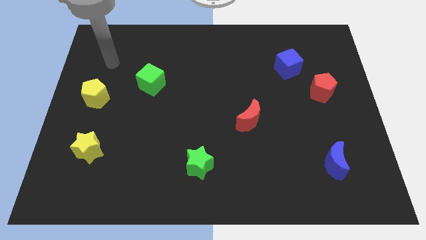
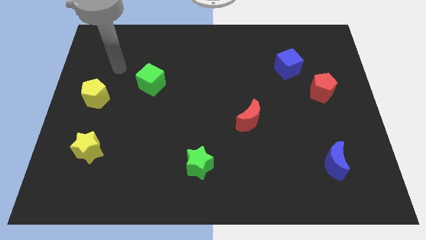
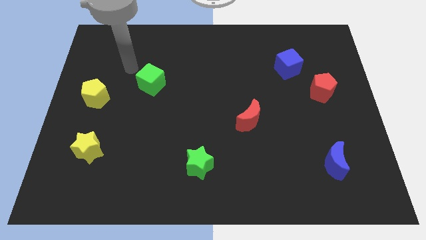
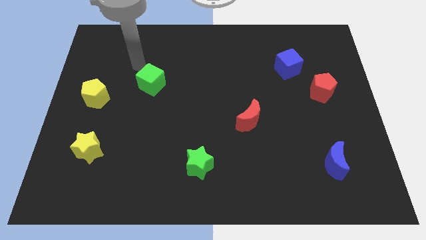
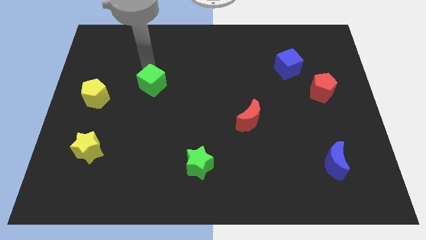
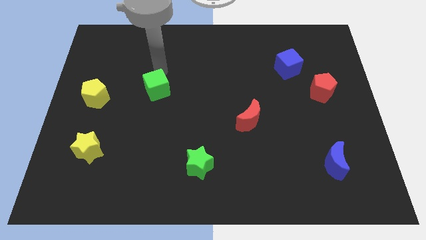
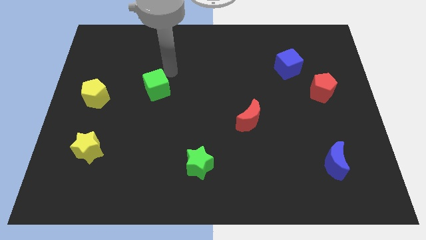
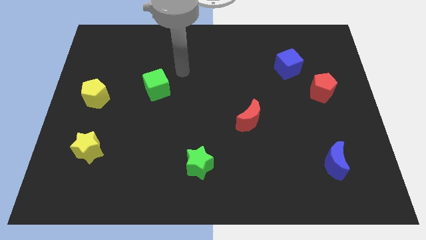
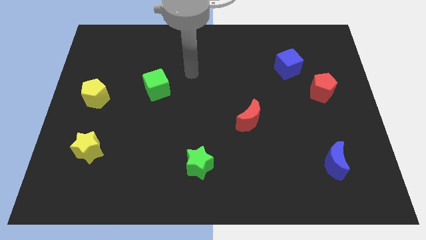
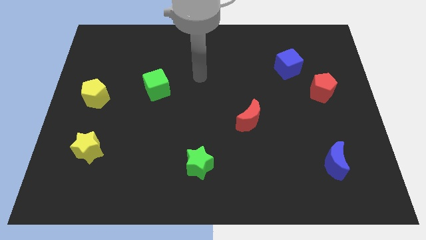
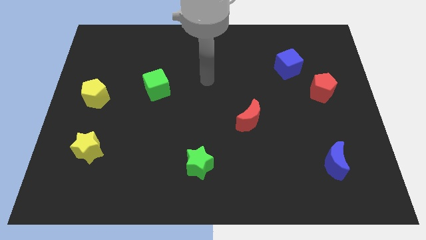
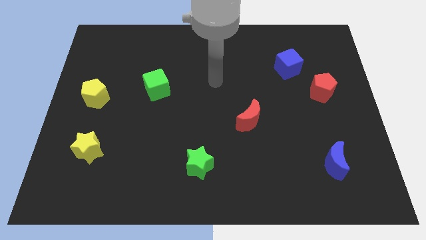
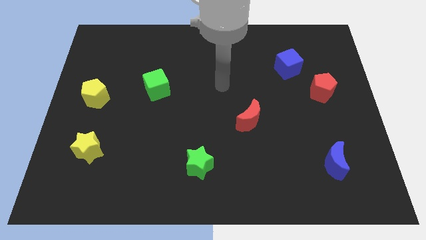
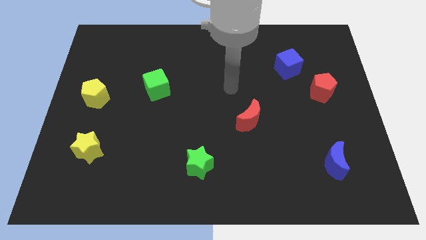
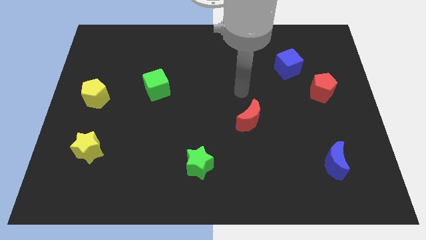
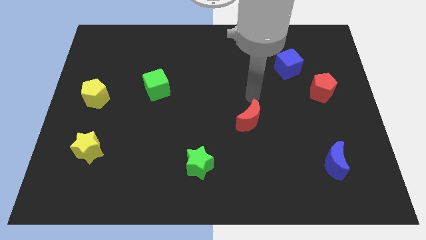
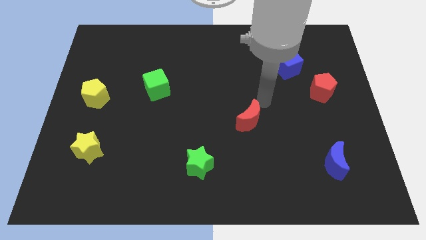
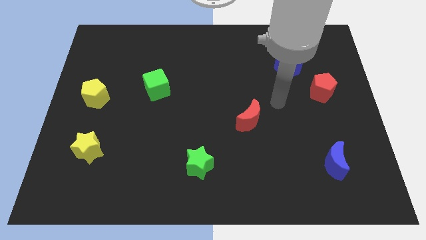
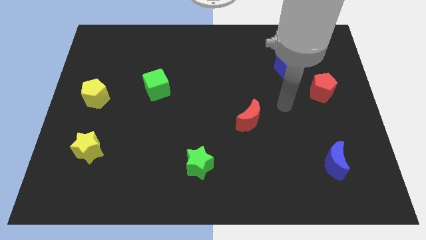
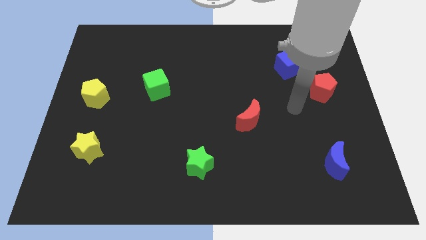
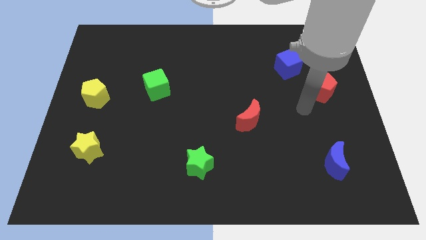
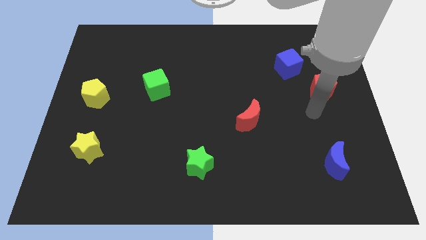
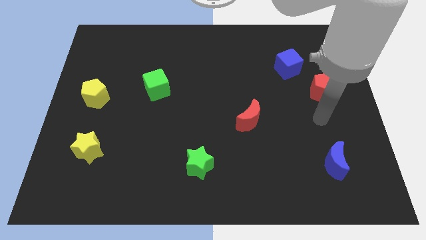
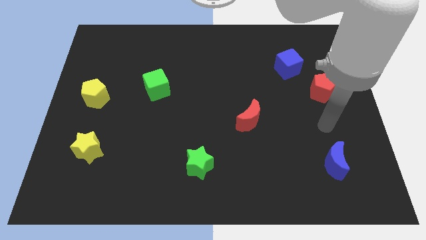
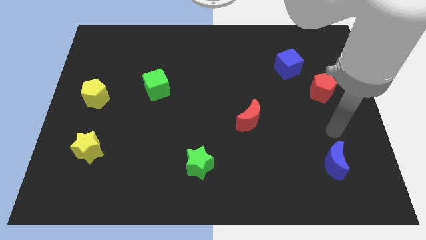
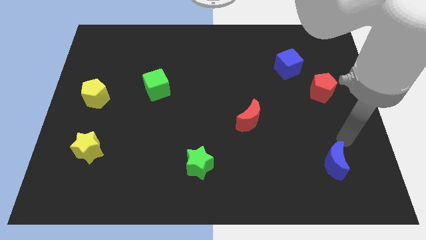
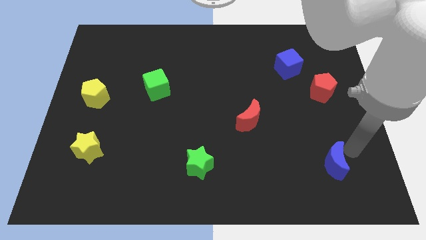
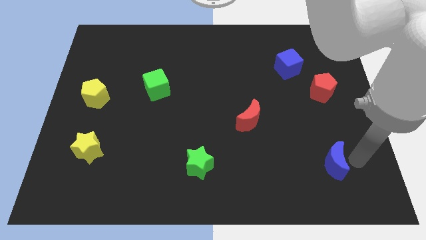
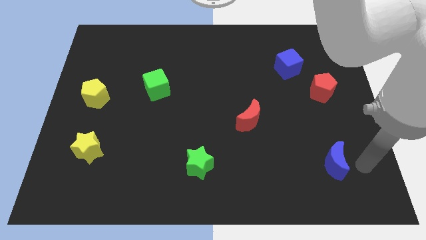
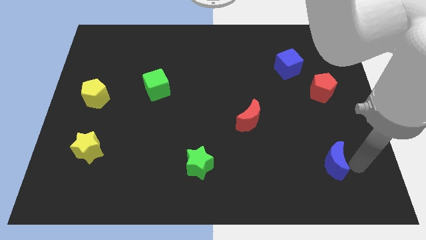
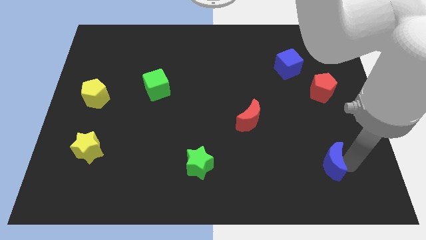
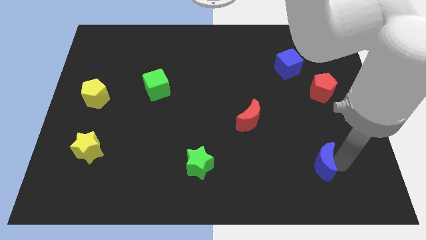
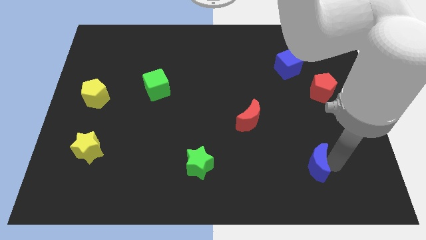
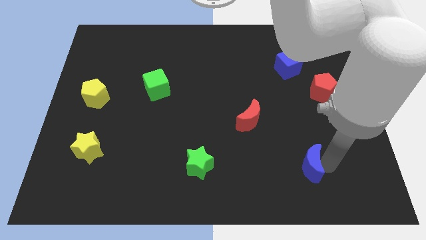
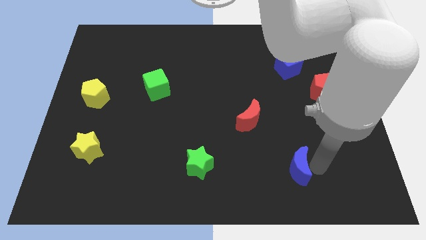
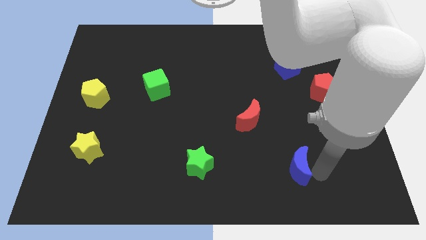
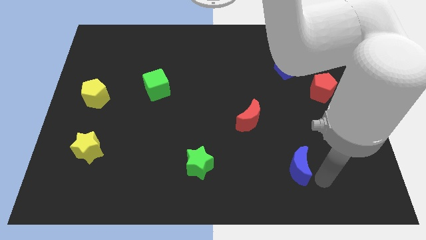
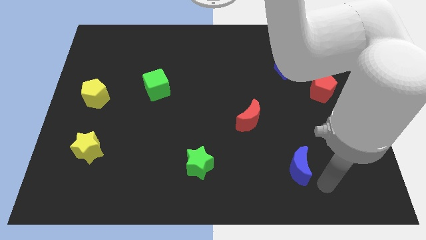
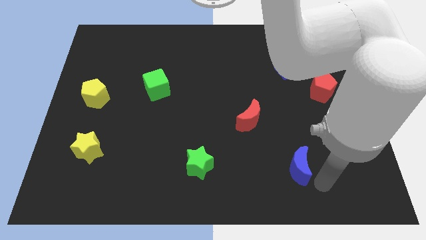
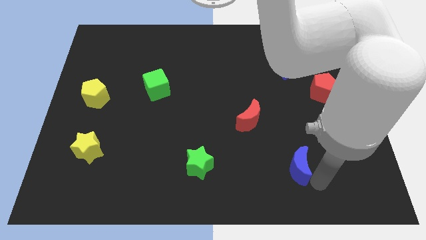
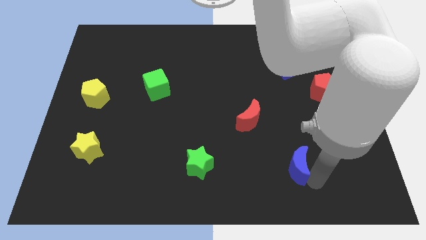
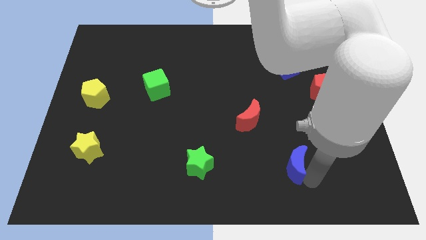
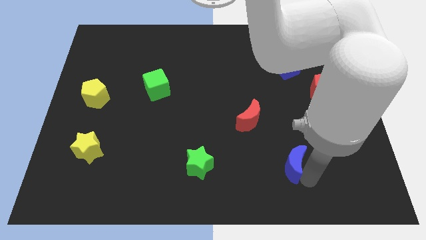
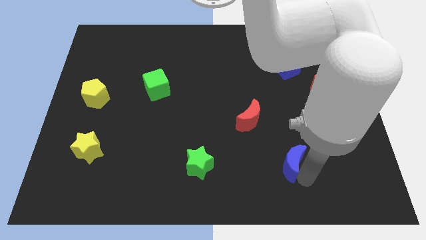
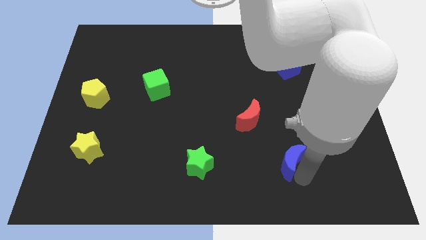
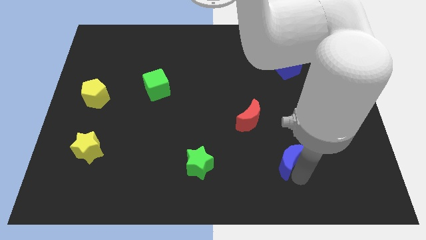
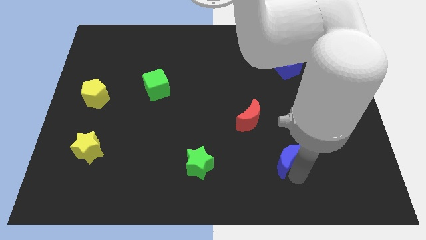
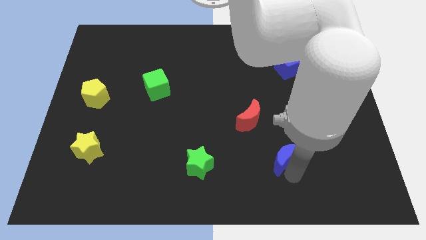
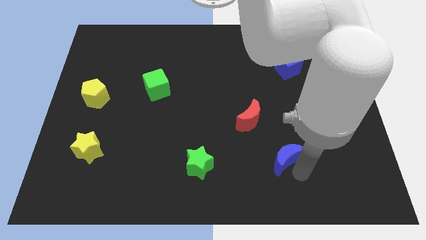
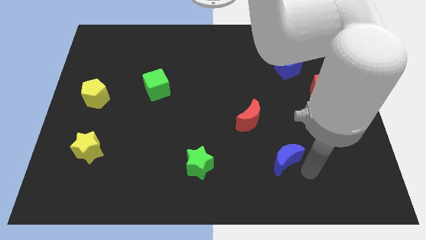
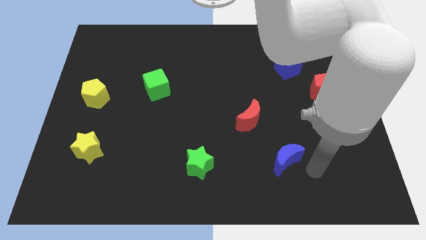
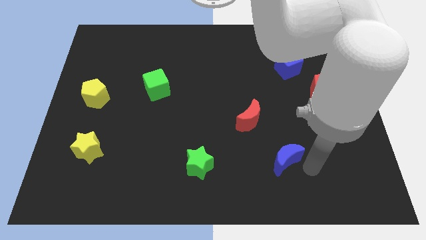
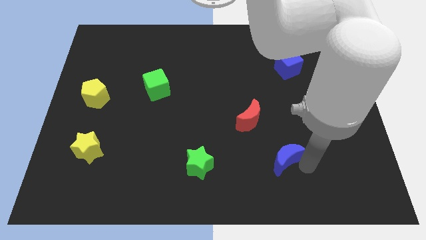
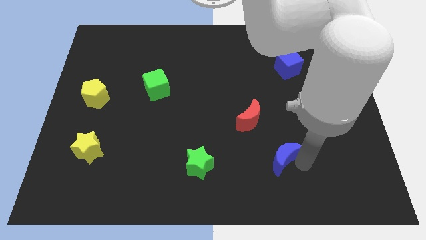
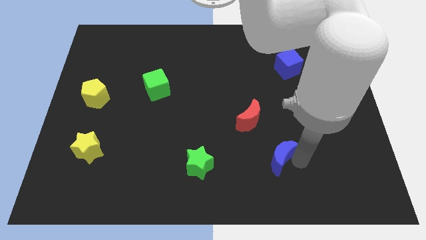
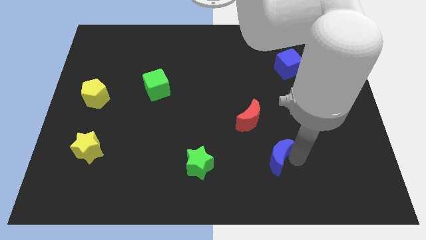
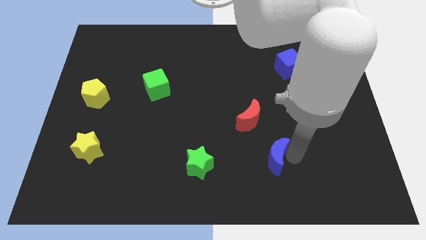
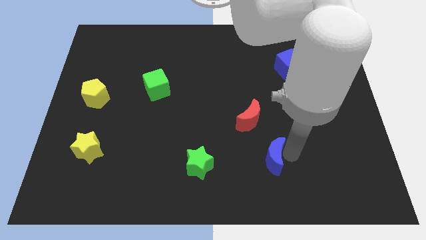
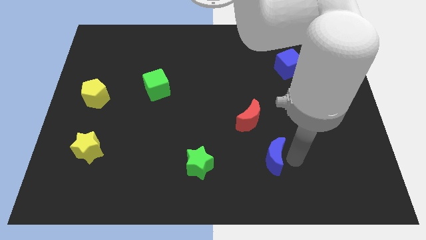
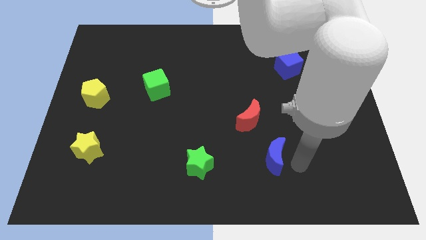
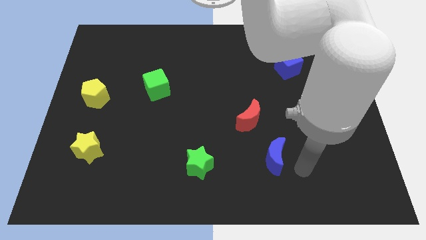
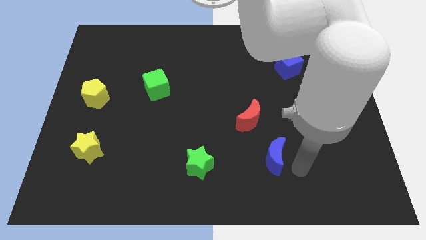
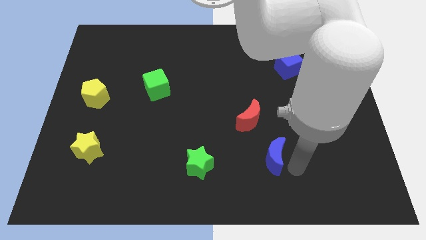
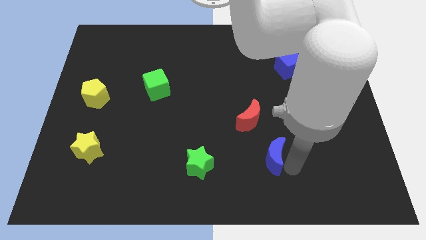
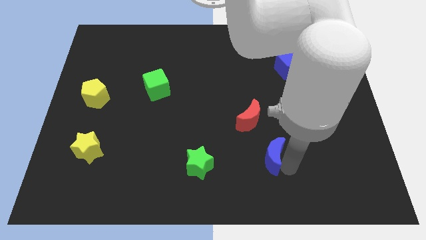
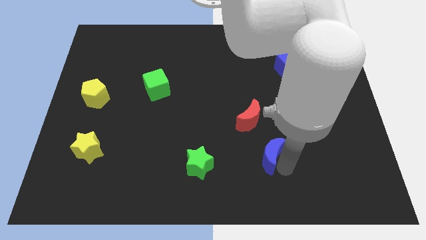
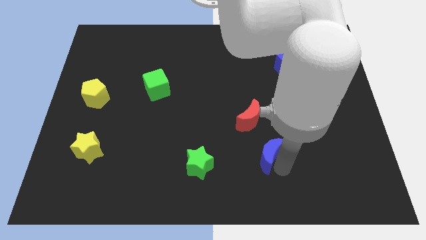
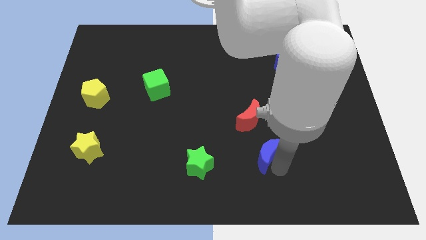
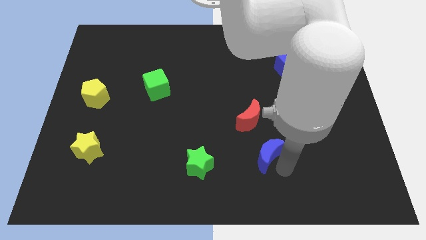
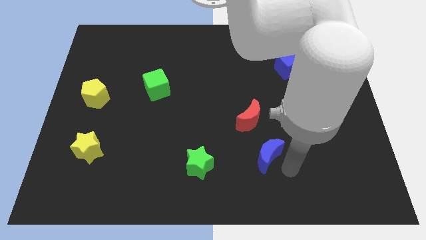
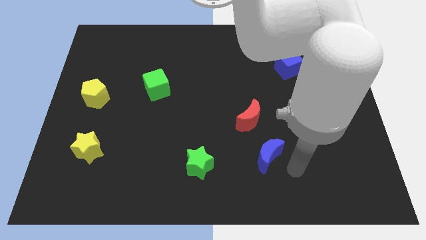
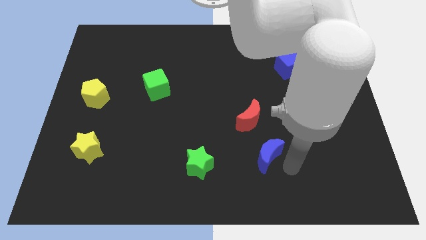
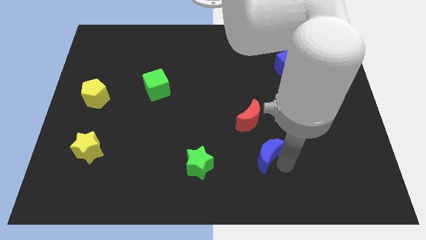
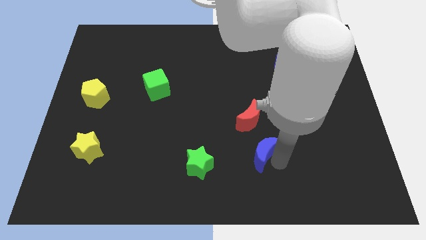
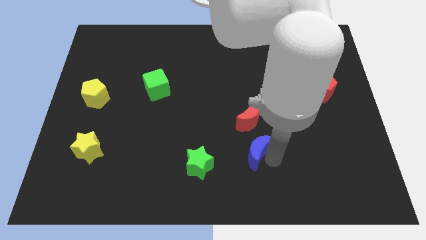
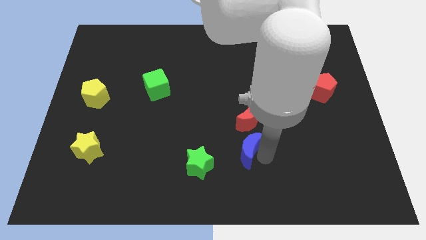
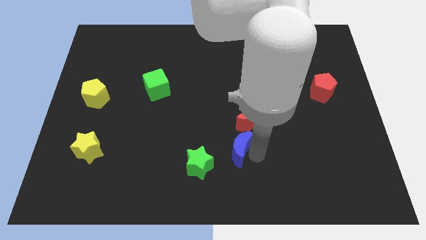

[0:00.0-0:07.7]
move the blue moon to the bottom left of the red moon
